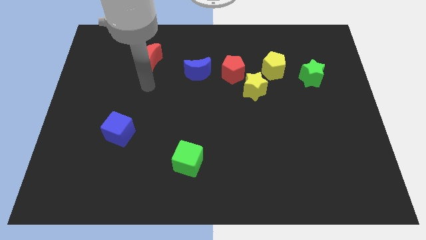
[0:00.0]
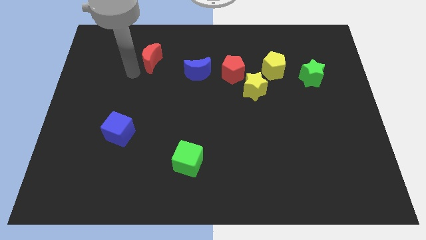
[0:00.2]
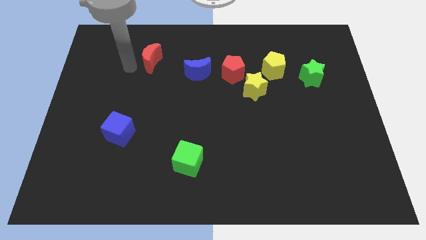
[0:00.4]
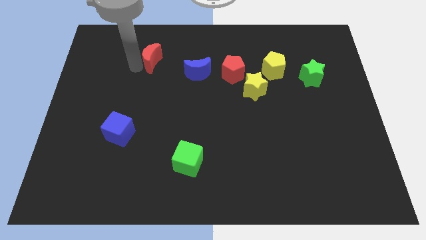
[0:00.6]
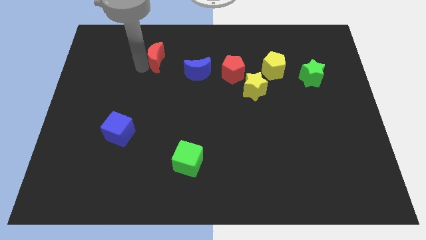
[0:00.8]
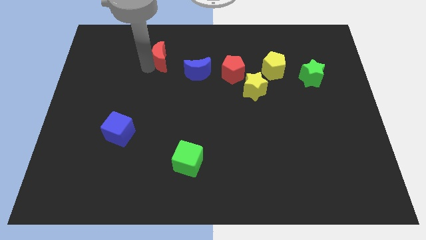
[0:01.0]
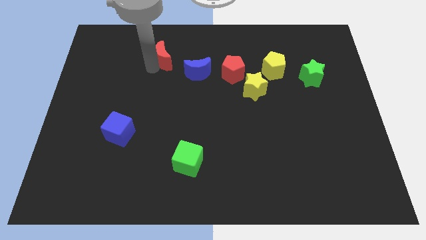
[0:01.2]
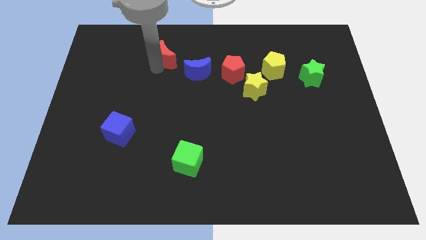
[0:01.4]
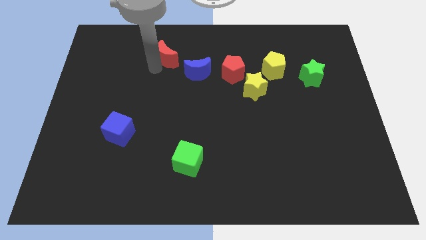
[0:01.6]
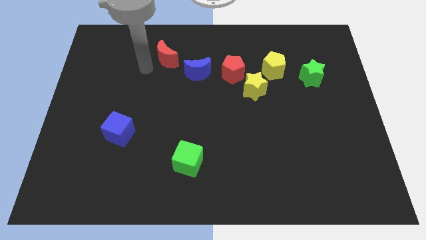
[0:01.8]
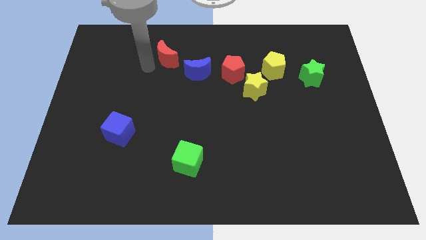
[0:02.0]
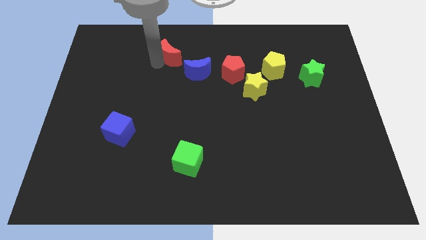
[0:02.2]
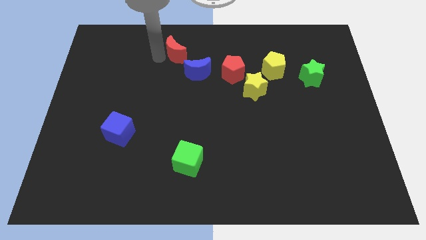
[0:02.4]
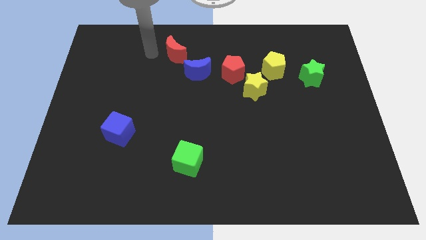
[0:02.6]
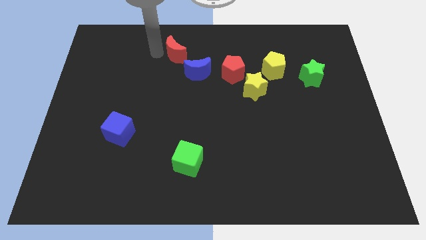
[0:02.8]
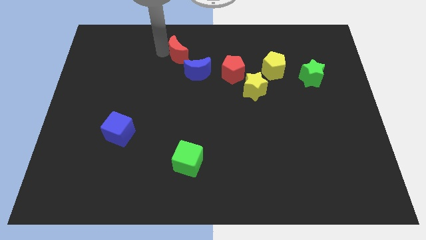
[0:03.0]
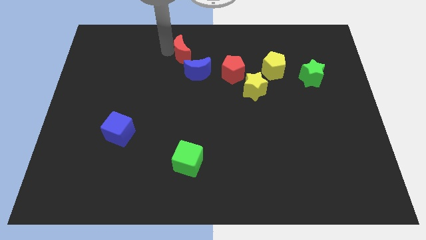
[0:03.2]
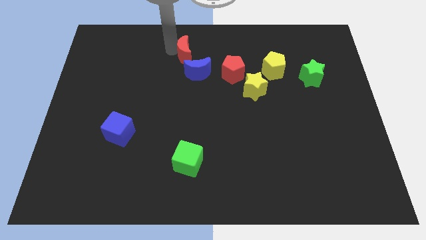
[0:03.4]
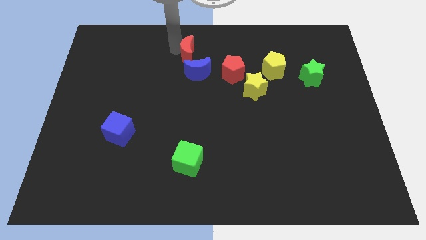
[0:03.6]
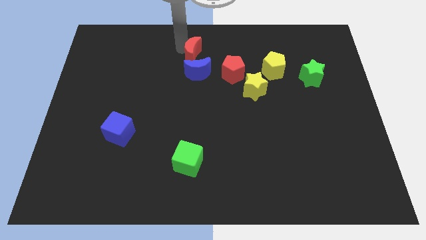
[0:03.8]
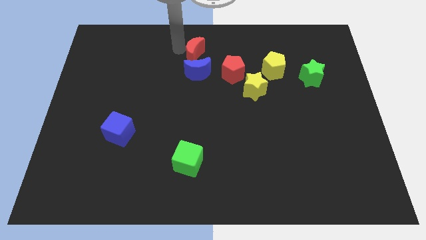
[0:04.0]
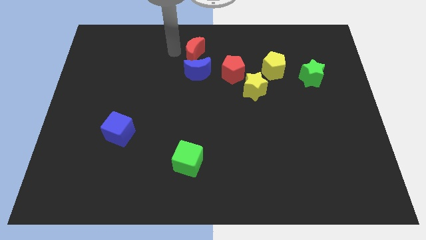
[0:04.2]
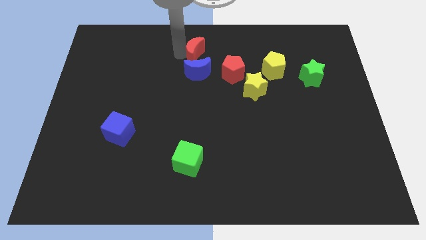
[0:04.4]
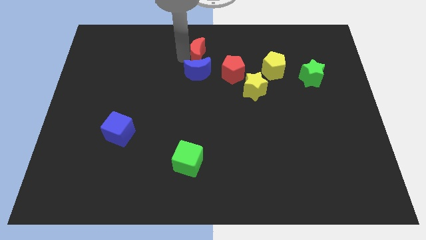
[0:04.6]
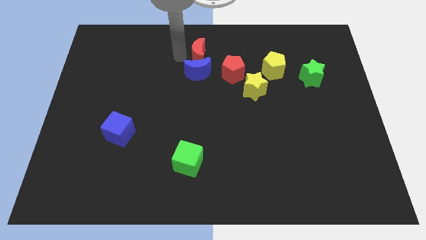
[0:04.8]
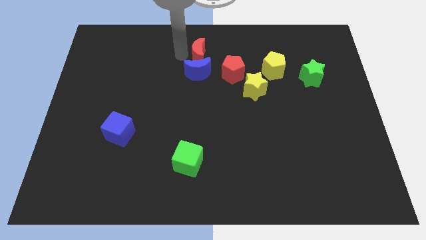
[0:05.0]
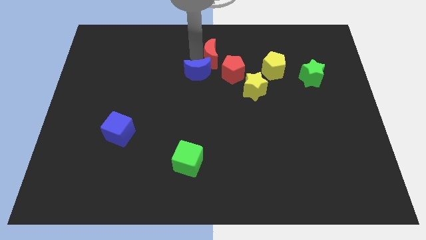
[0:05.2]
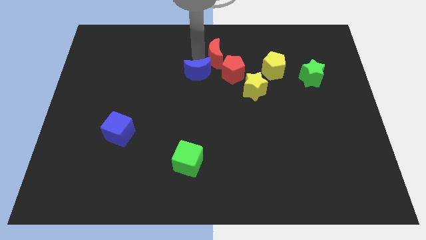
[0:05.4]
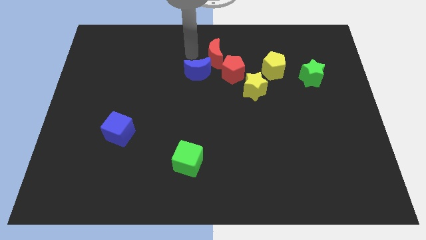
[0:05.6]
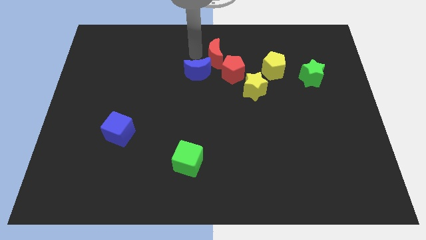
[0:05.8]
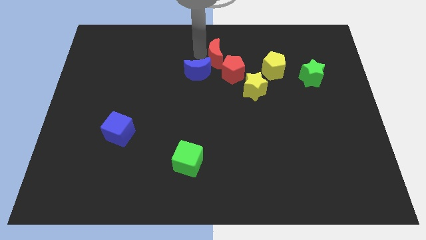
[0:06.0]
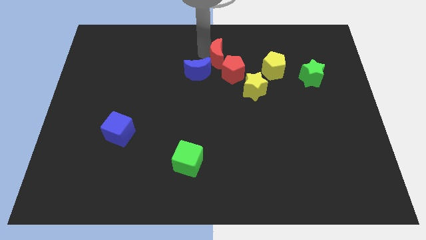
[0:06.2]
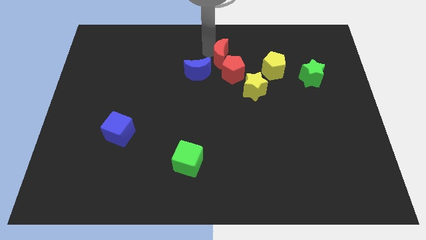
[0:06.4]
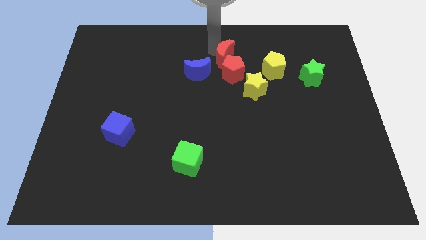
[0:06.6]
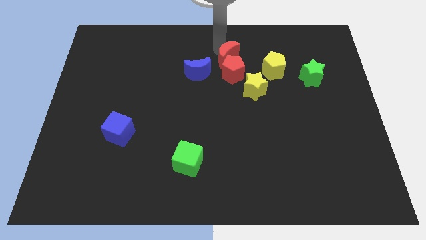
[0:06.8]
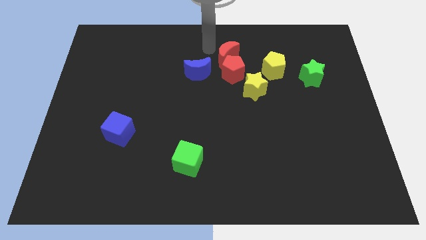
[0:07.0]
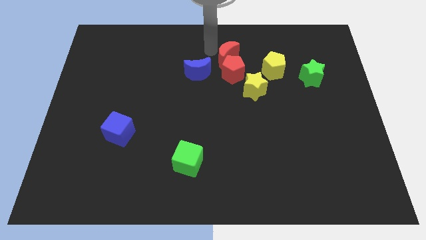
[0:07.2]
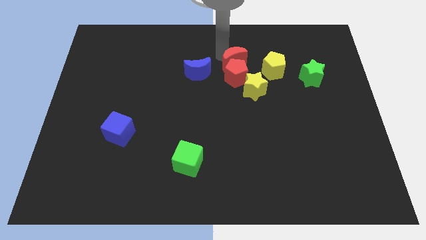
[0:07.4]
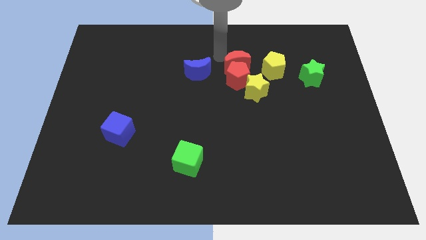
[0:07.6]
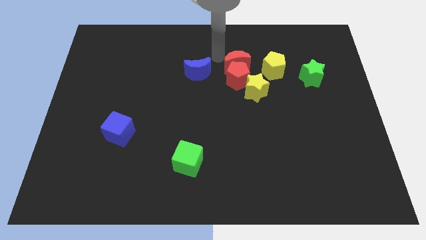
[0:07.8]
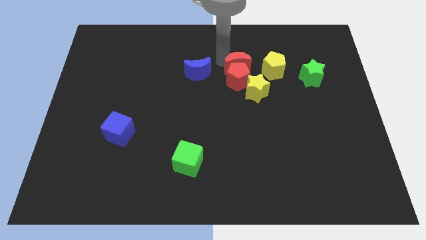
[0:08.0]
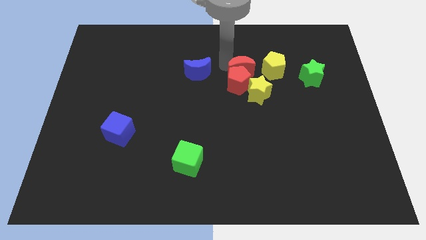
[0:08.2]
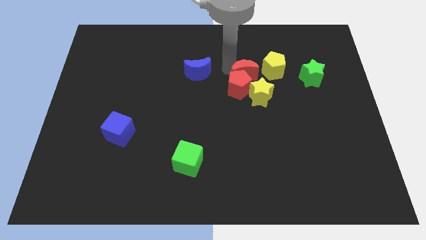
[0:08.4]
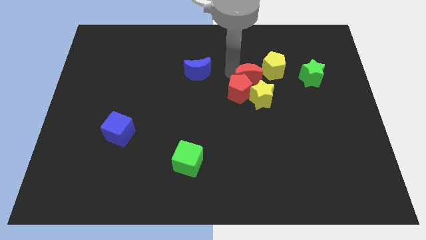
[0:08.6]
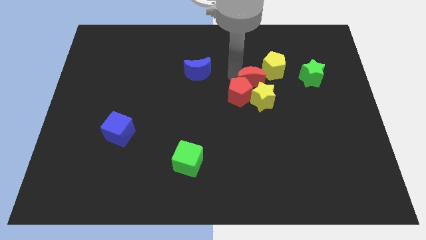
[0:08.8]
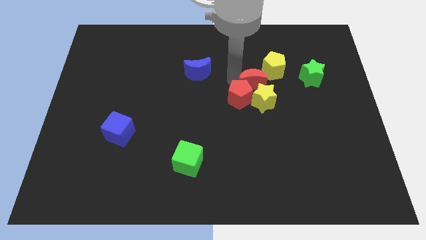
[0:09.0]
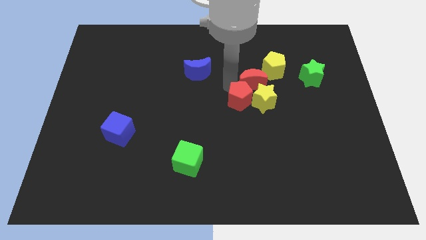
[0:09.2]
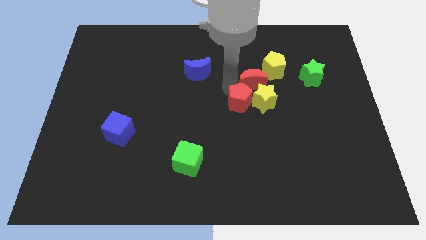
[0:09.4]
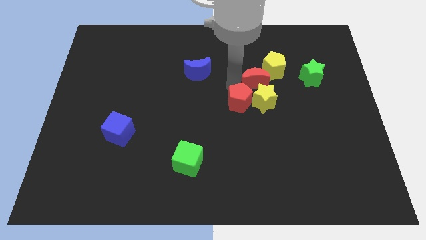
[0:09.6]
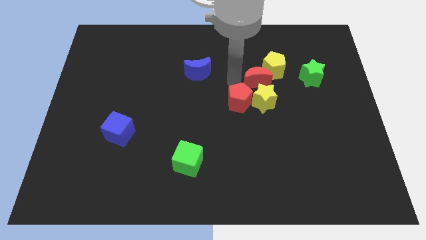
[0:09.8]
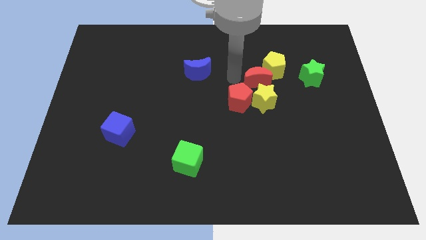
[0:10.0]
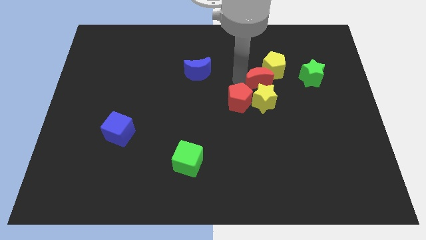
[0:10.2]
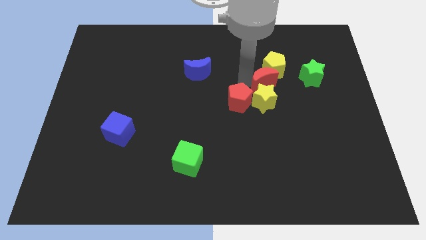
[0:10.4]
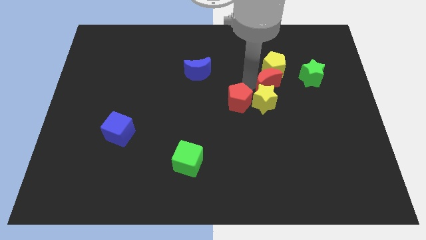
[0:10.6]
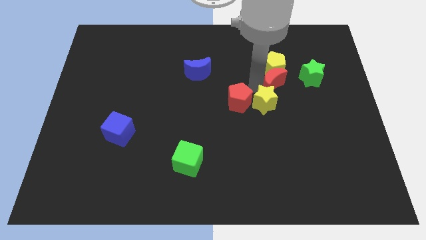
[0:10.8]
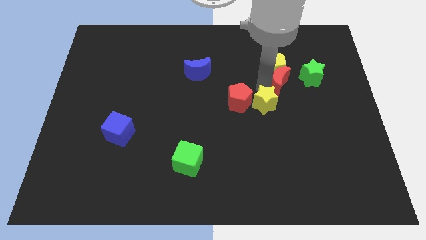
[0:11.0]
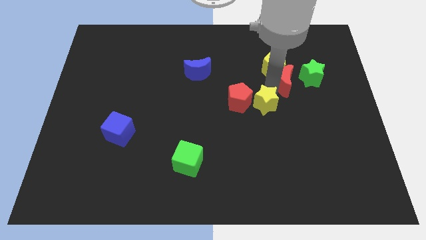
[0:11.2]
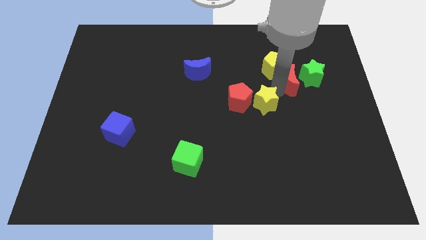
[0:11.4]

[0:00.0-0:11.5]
put the red moon close to the green star

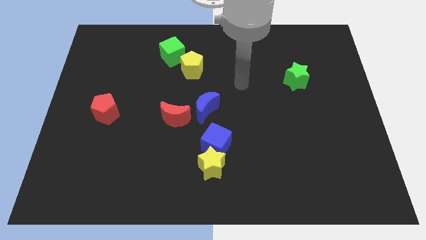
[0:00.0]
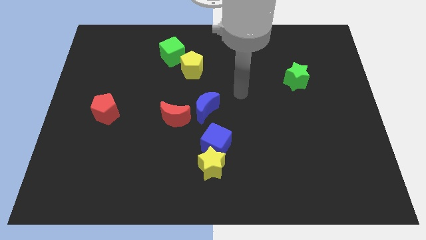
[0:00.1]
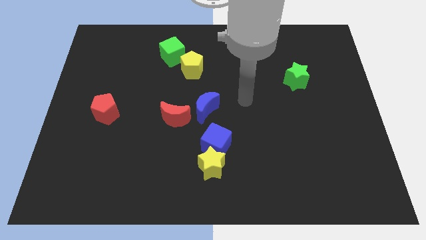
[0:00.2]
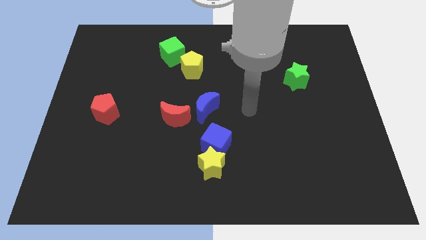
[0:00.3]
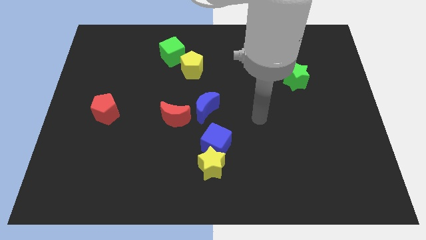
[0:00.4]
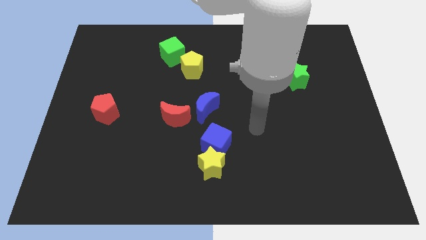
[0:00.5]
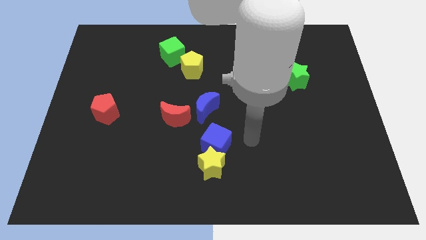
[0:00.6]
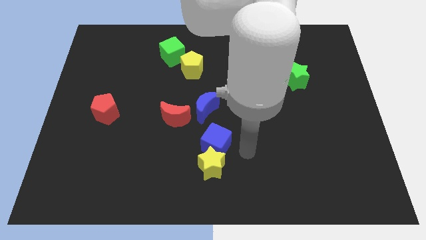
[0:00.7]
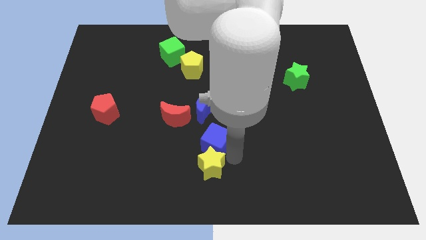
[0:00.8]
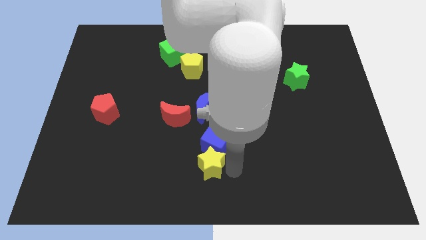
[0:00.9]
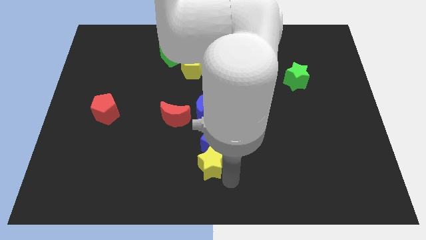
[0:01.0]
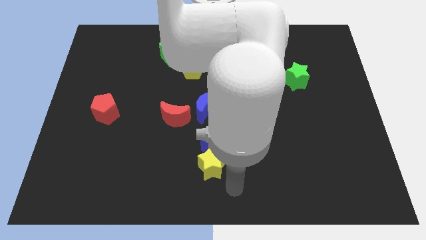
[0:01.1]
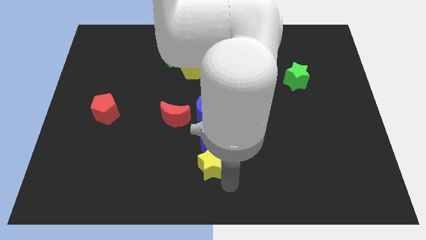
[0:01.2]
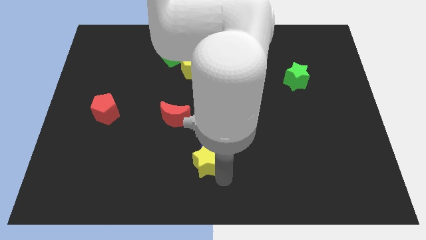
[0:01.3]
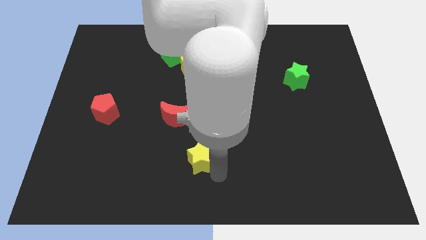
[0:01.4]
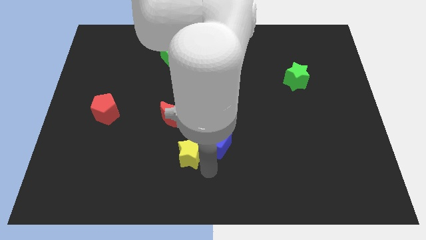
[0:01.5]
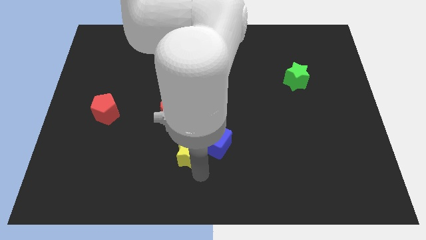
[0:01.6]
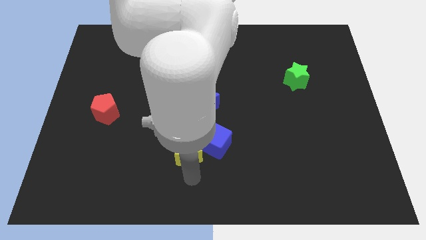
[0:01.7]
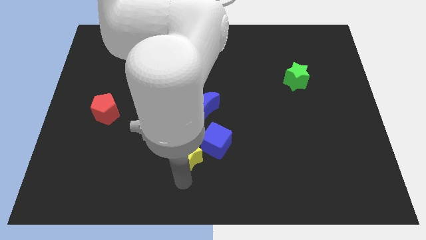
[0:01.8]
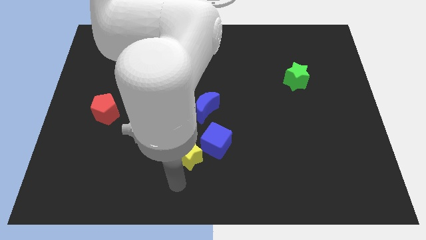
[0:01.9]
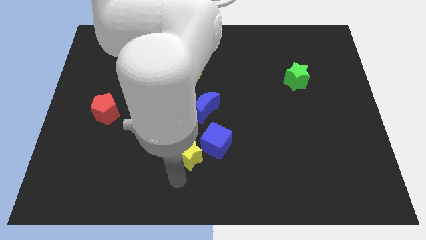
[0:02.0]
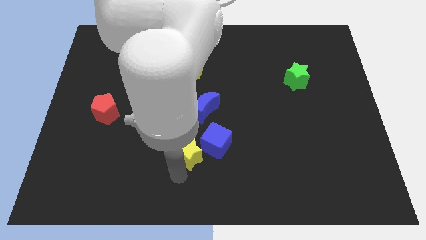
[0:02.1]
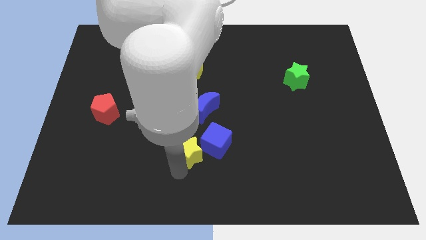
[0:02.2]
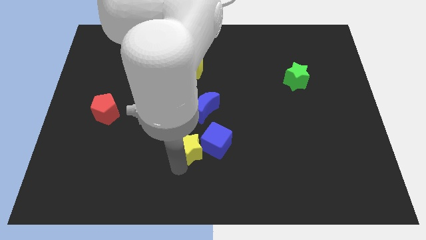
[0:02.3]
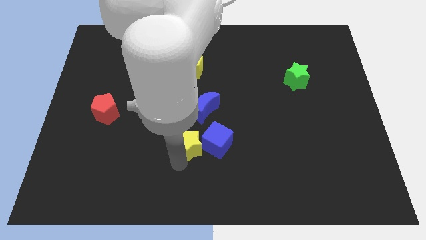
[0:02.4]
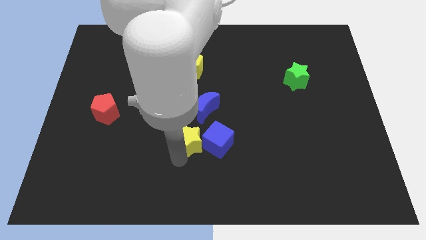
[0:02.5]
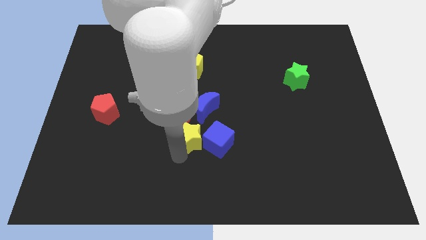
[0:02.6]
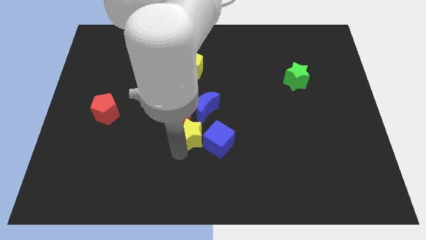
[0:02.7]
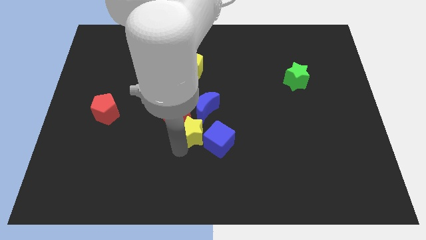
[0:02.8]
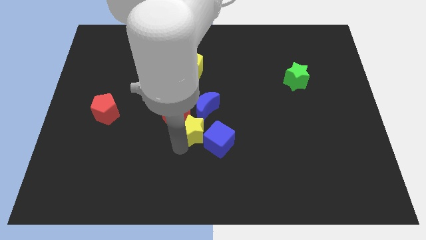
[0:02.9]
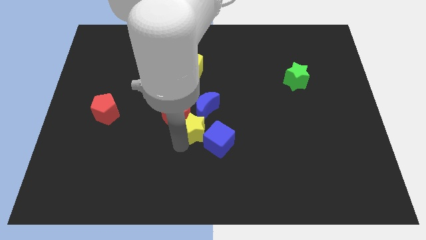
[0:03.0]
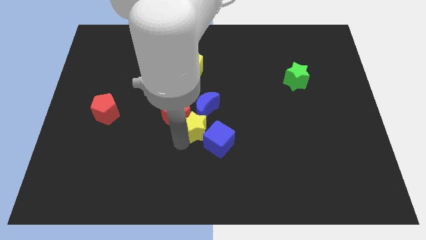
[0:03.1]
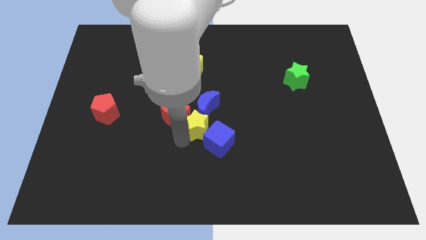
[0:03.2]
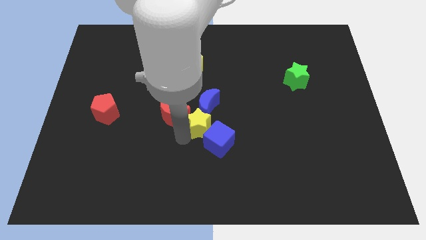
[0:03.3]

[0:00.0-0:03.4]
move the yellow star towards the blue moon
